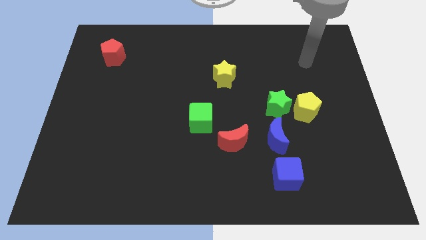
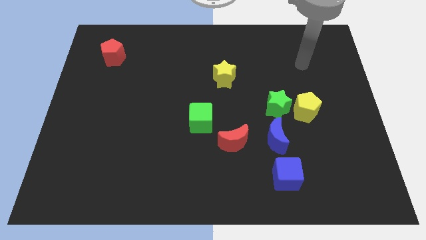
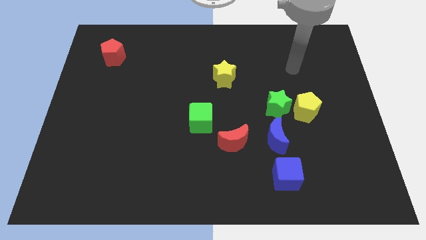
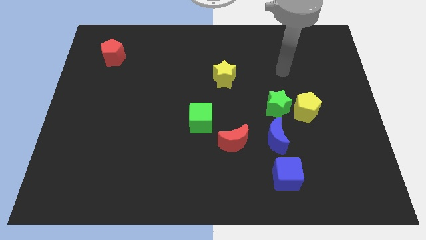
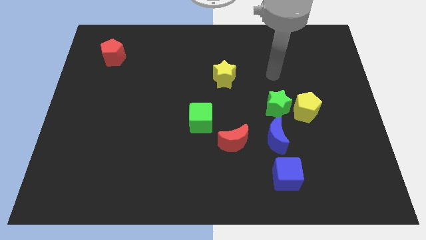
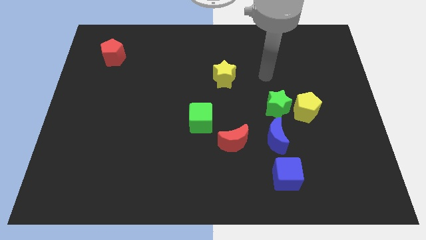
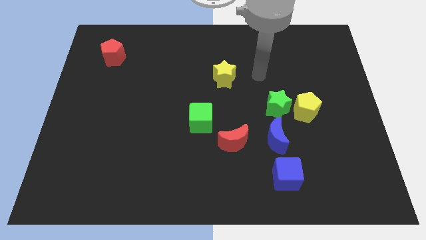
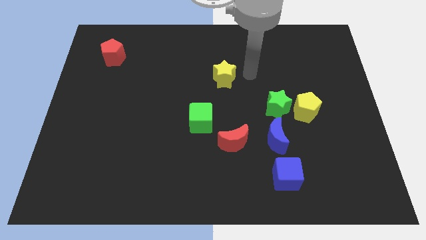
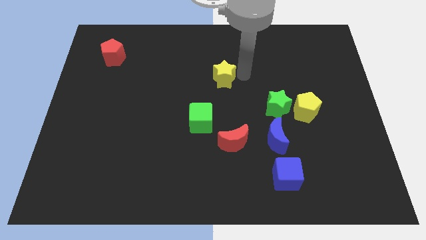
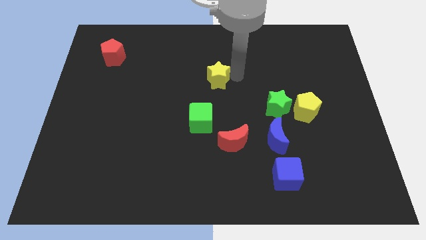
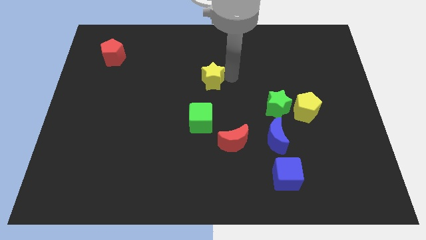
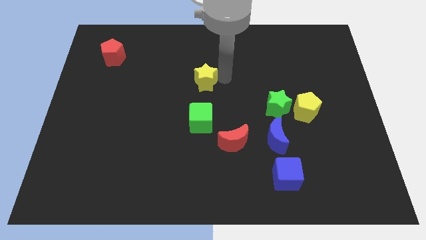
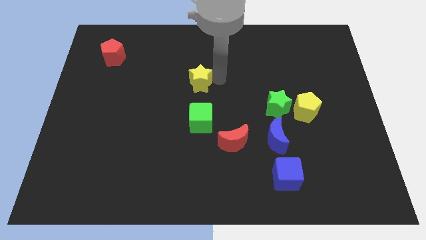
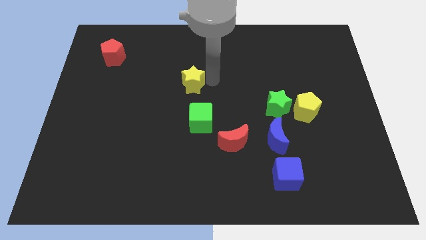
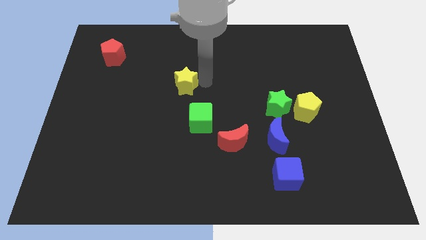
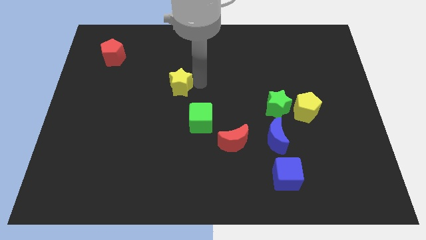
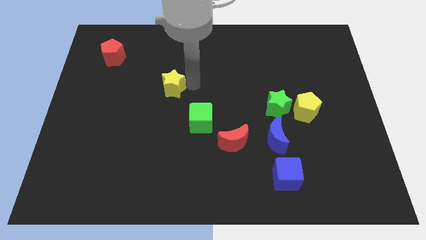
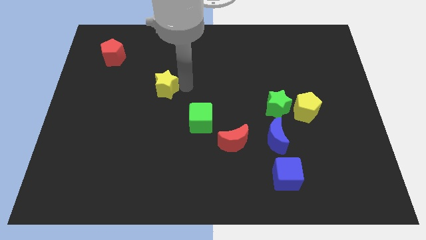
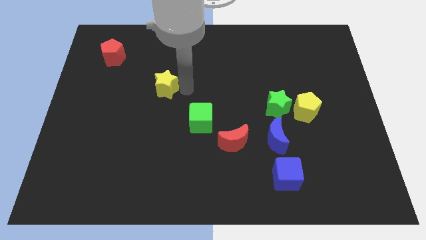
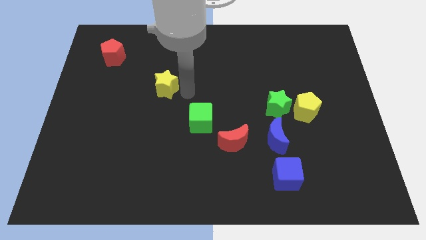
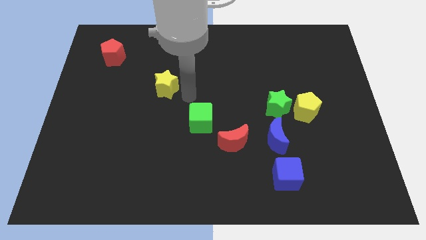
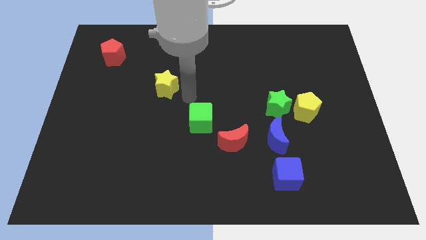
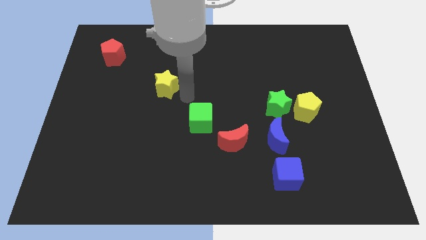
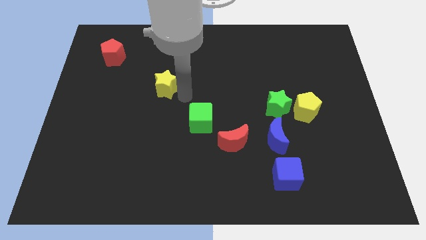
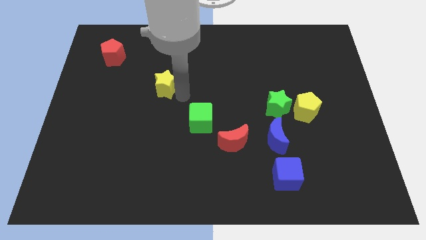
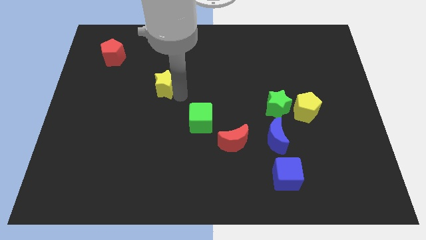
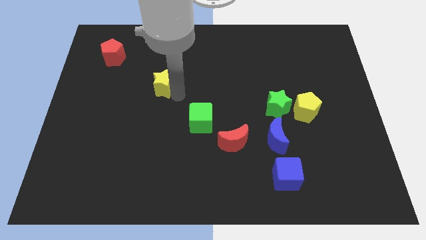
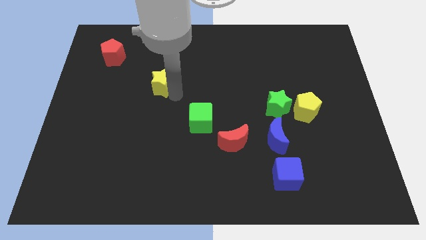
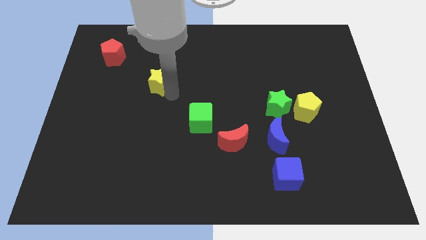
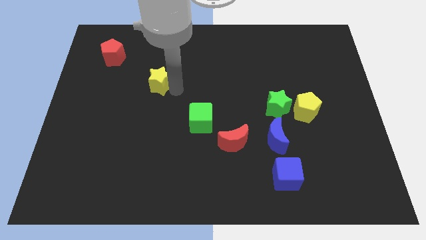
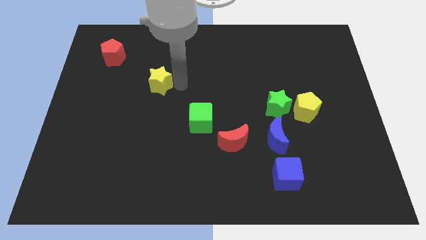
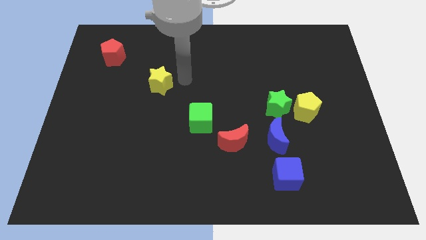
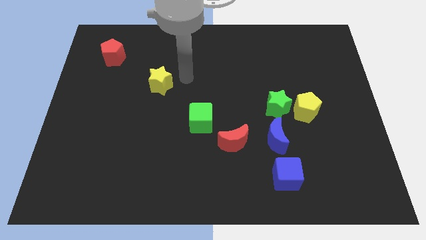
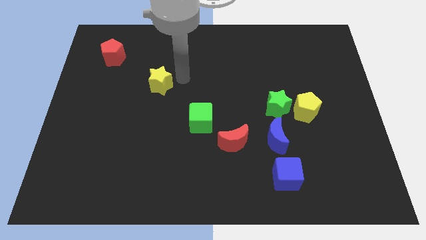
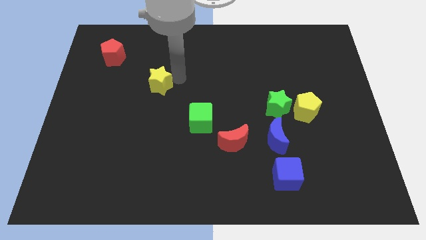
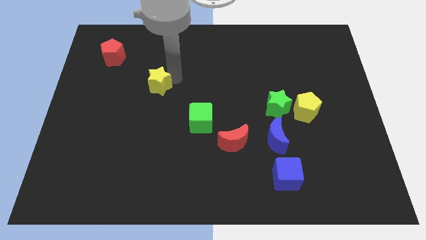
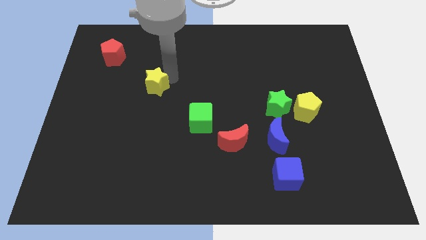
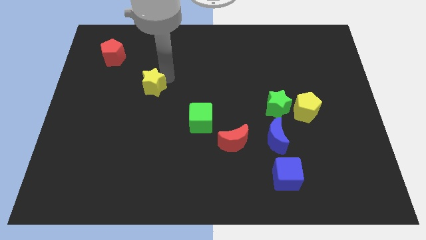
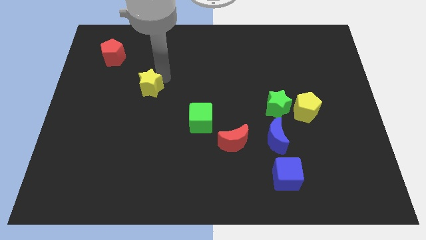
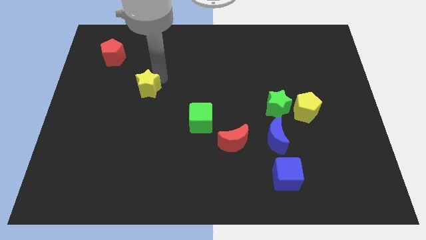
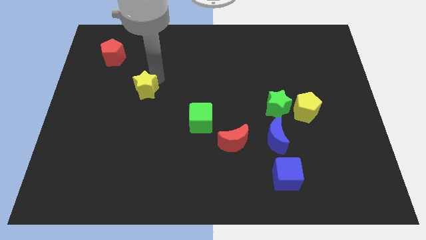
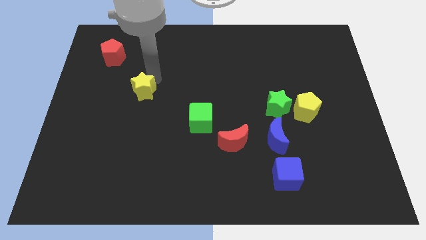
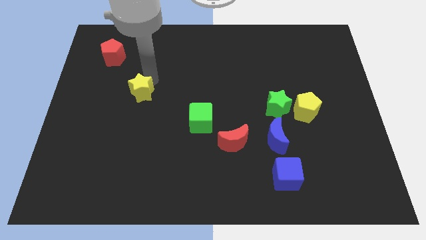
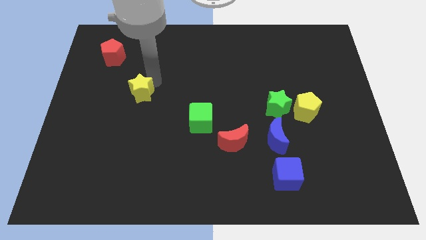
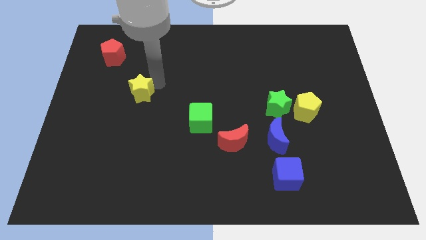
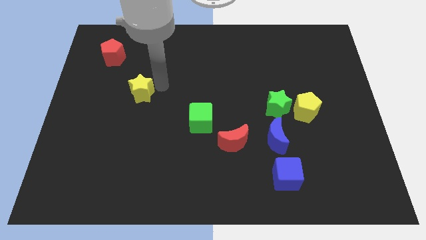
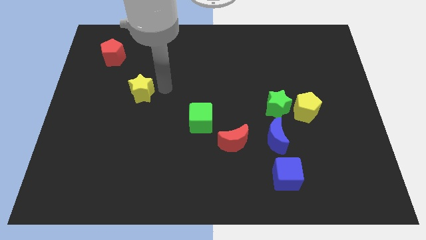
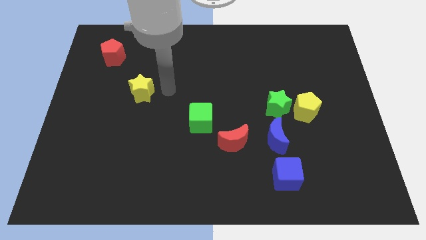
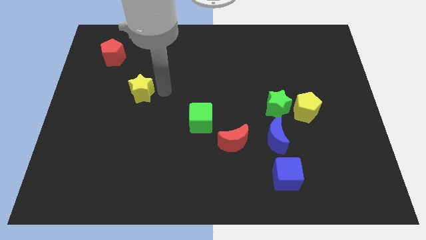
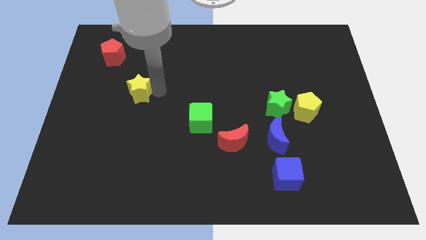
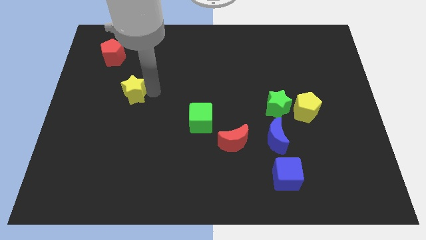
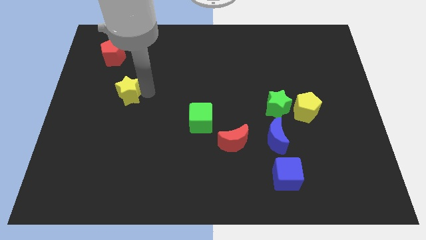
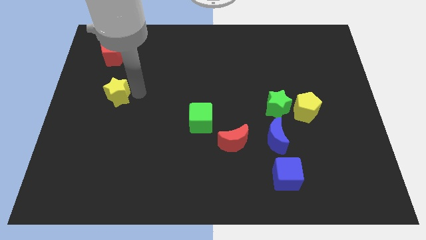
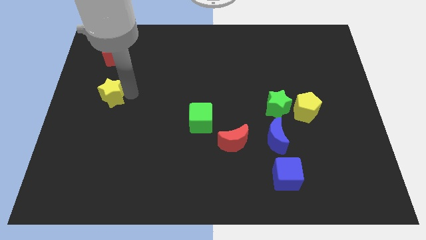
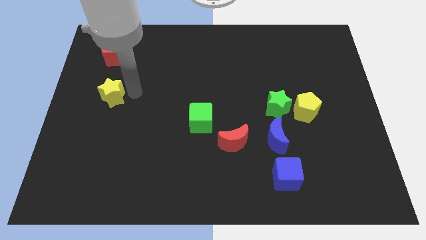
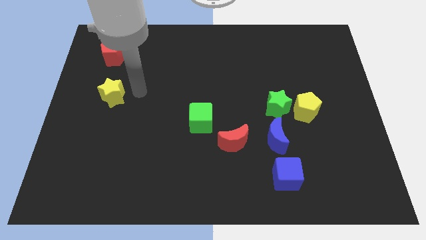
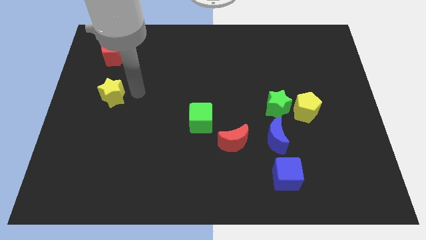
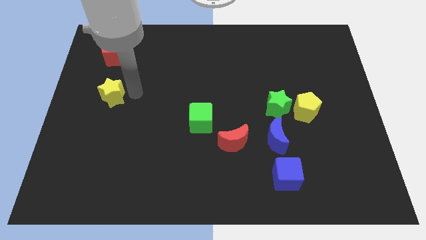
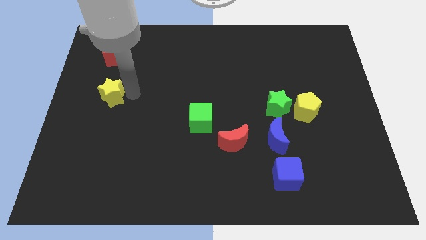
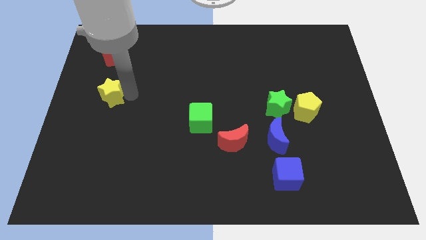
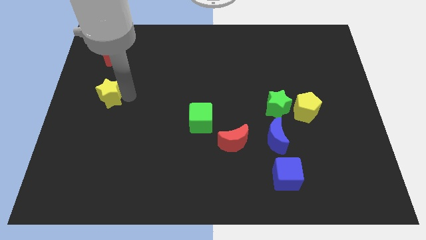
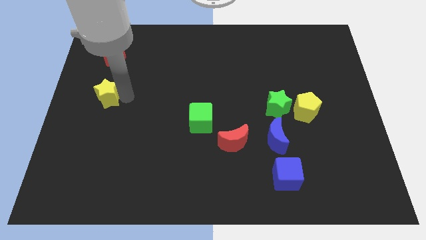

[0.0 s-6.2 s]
put the yellow star to the left side of the board
